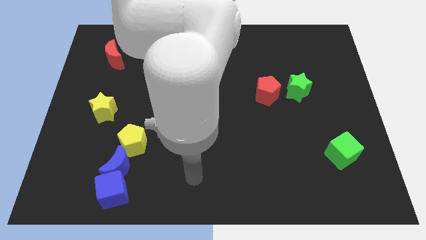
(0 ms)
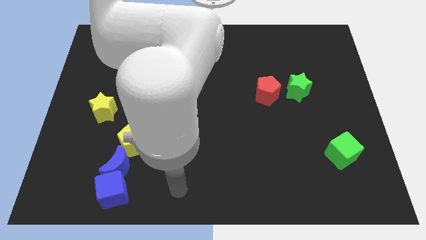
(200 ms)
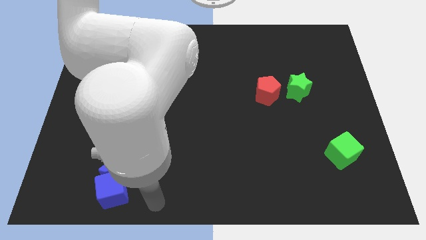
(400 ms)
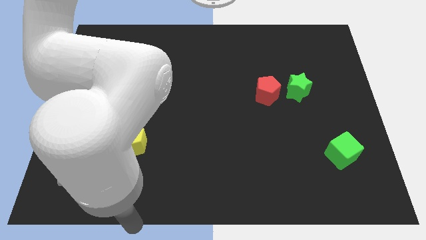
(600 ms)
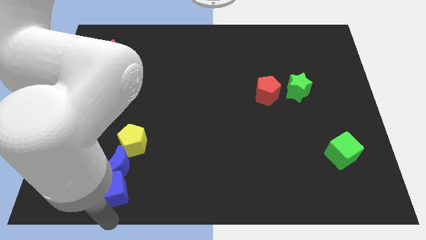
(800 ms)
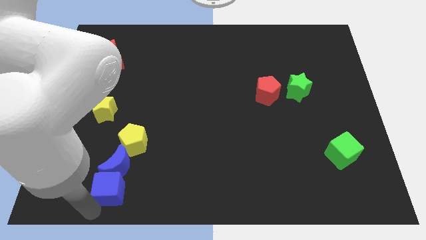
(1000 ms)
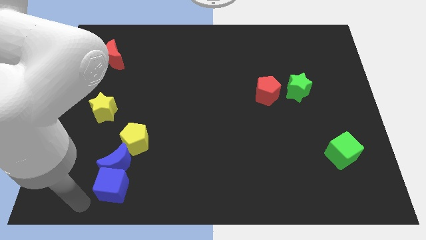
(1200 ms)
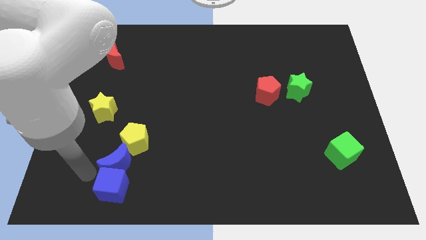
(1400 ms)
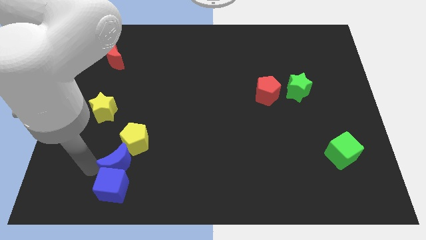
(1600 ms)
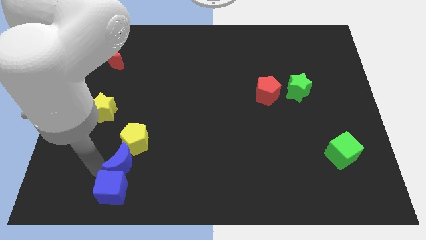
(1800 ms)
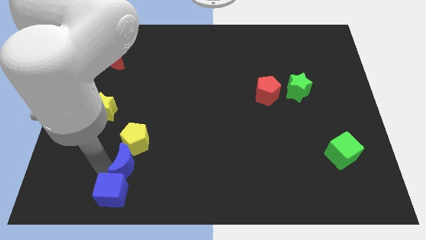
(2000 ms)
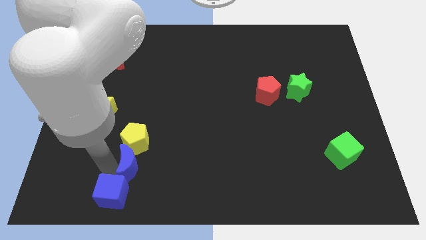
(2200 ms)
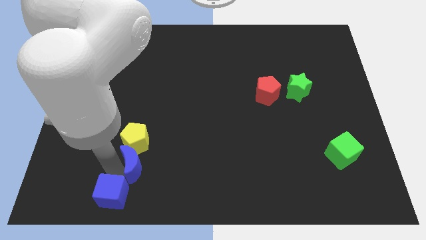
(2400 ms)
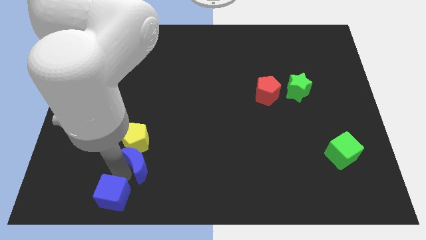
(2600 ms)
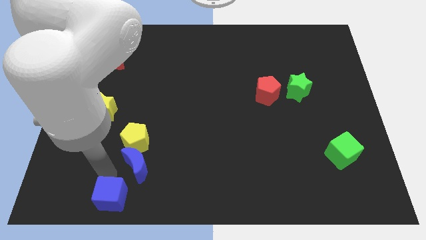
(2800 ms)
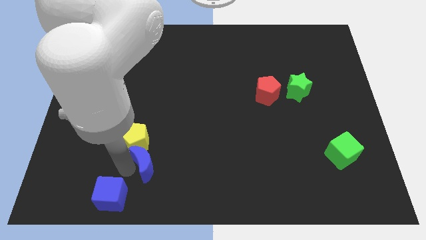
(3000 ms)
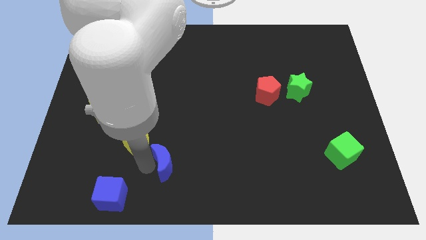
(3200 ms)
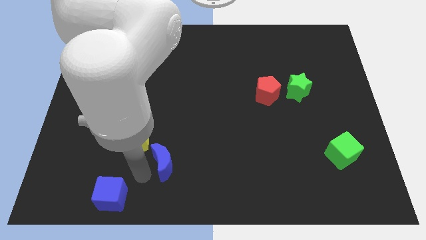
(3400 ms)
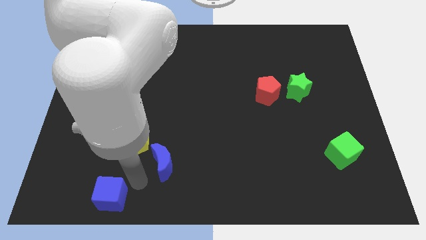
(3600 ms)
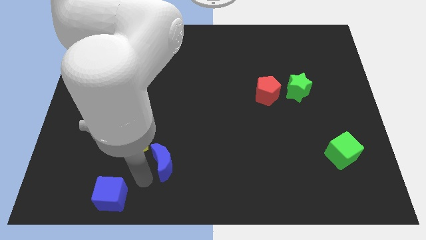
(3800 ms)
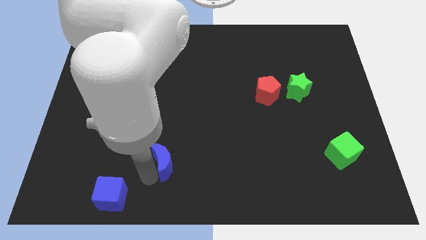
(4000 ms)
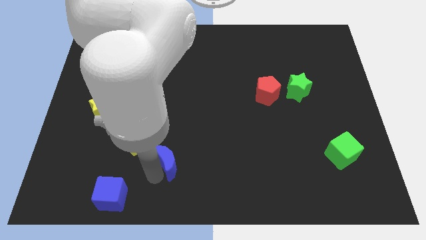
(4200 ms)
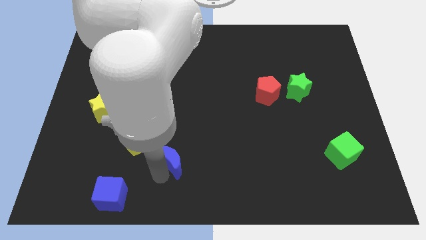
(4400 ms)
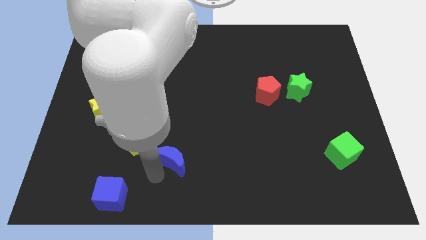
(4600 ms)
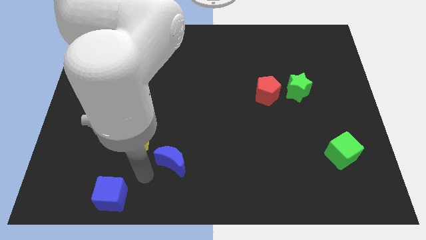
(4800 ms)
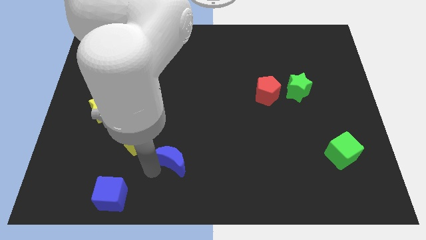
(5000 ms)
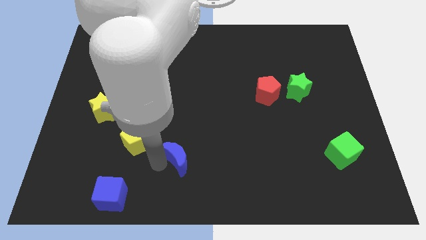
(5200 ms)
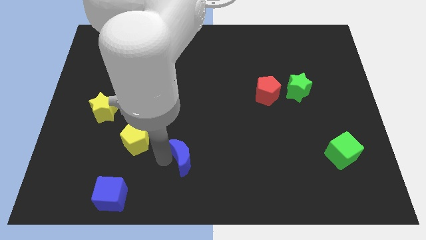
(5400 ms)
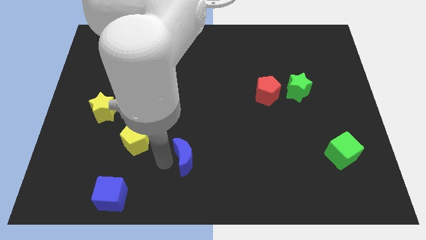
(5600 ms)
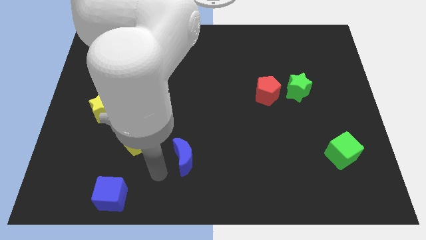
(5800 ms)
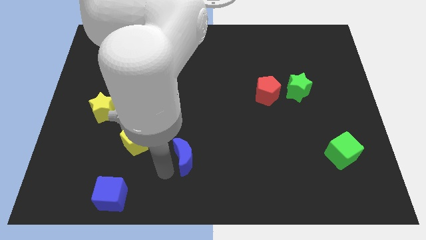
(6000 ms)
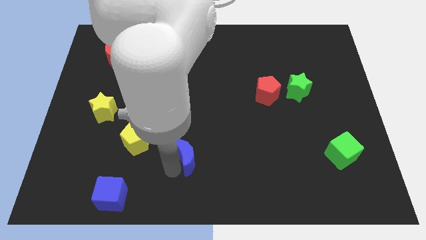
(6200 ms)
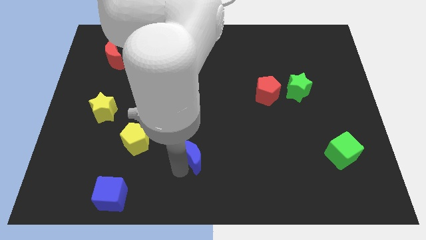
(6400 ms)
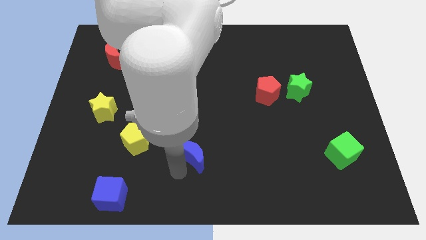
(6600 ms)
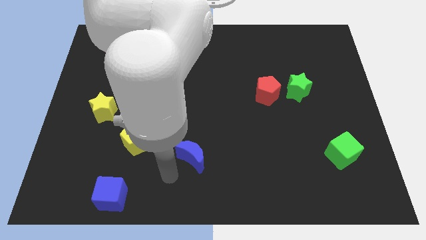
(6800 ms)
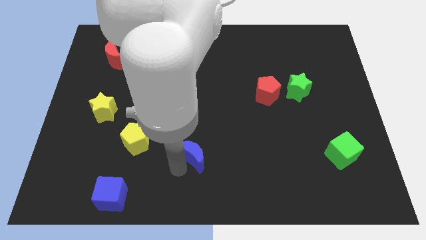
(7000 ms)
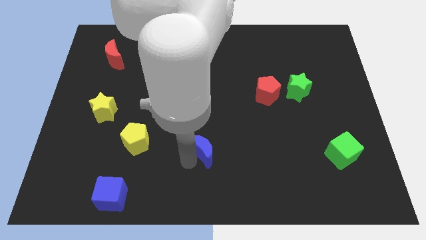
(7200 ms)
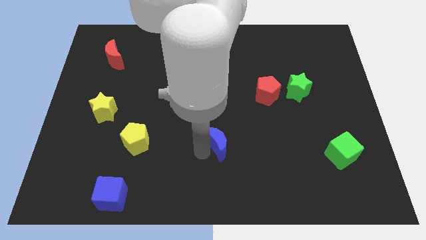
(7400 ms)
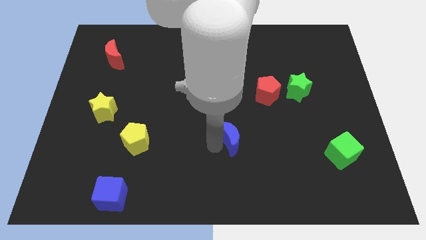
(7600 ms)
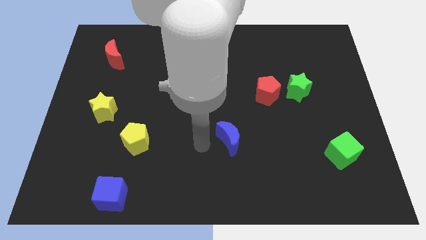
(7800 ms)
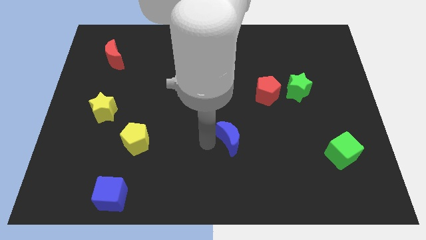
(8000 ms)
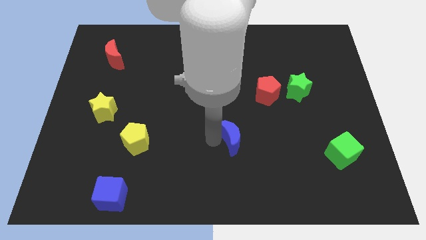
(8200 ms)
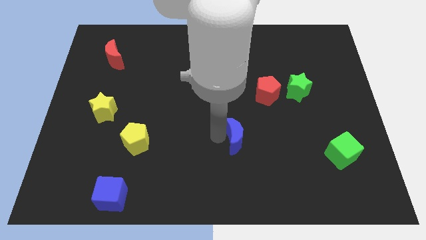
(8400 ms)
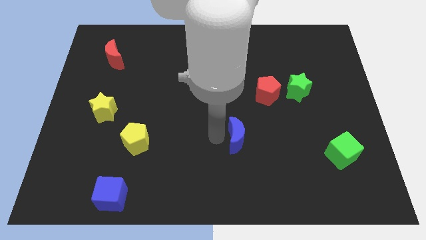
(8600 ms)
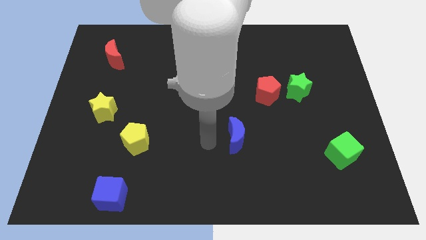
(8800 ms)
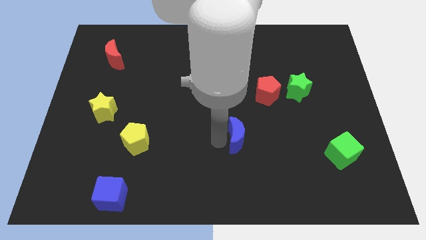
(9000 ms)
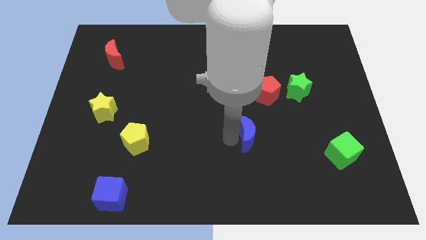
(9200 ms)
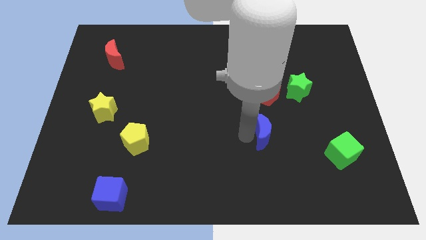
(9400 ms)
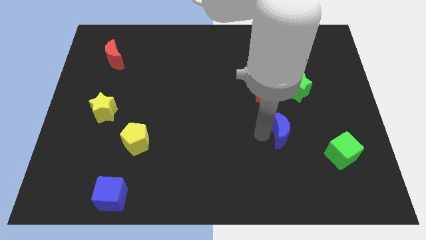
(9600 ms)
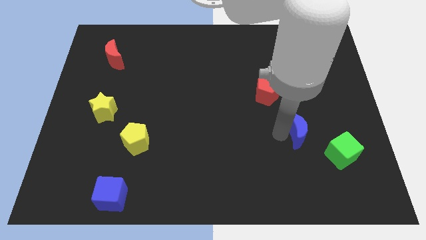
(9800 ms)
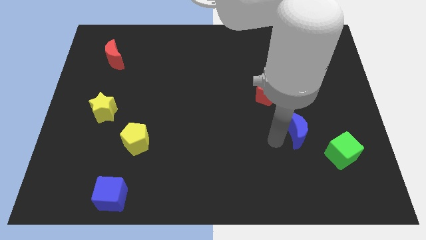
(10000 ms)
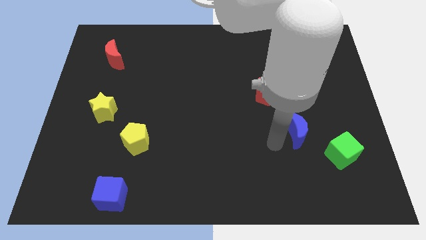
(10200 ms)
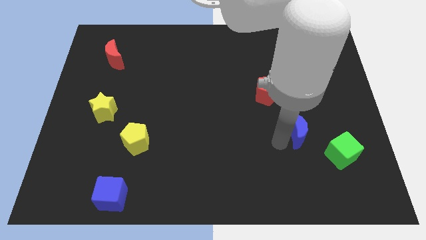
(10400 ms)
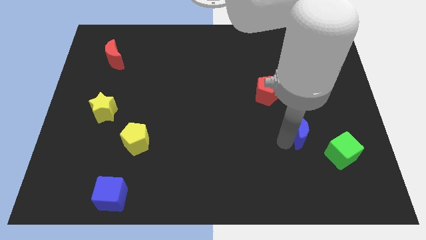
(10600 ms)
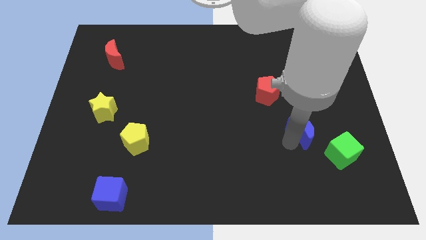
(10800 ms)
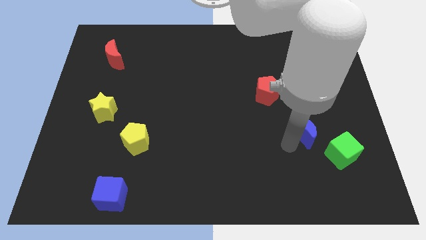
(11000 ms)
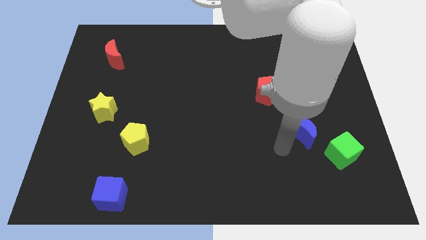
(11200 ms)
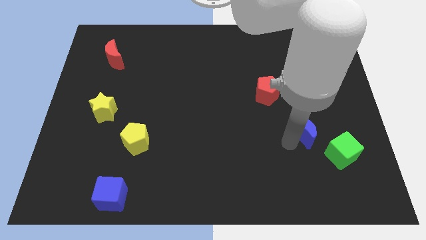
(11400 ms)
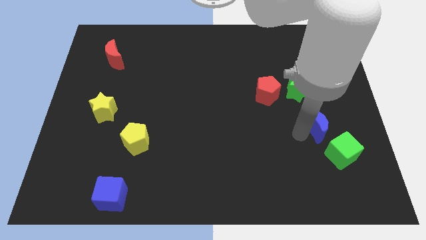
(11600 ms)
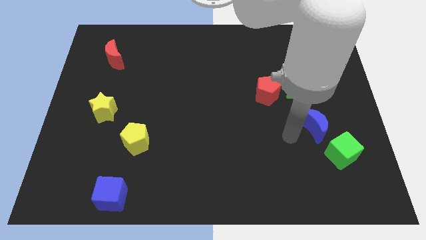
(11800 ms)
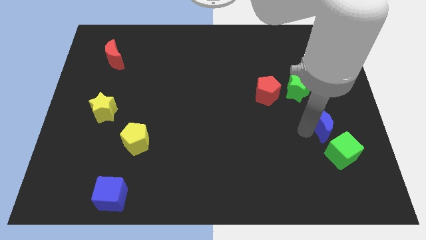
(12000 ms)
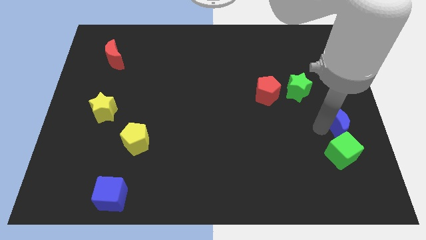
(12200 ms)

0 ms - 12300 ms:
move the blue moon to the center right
